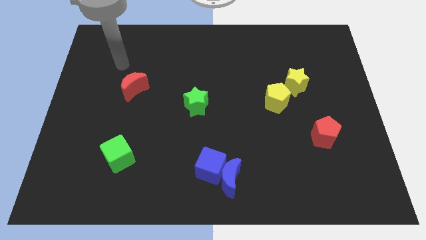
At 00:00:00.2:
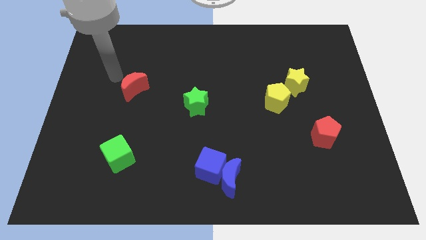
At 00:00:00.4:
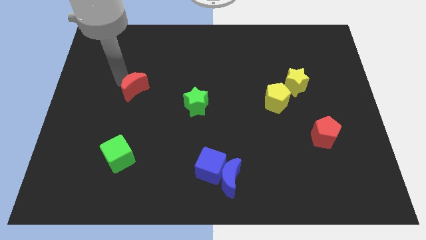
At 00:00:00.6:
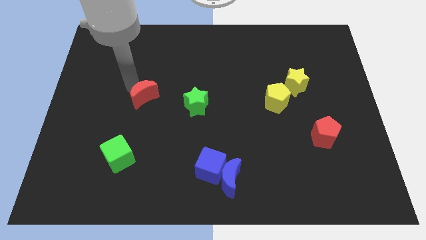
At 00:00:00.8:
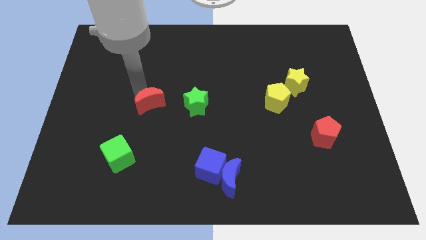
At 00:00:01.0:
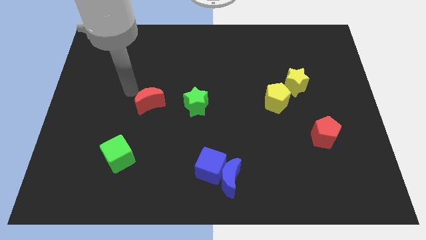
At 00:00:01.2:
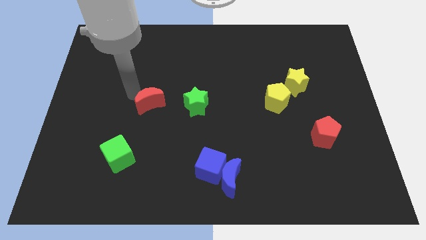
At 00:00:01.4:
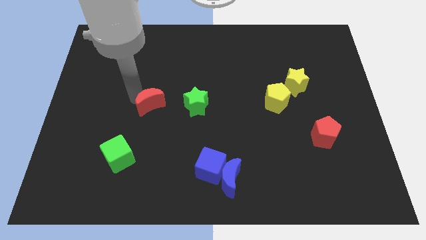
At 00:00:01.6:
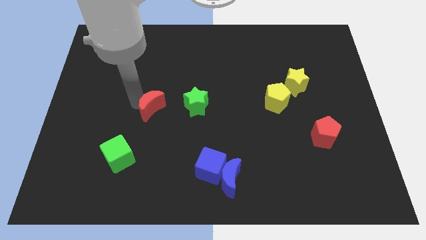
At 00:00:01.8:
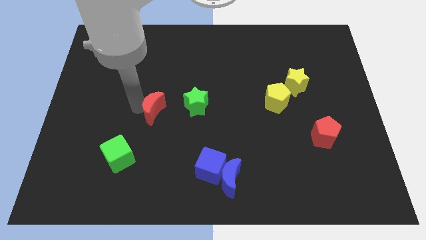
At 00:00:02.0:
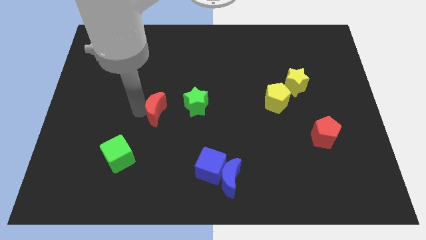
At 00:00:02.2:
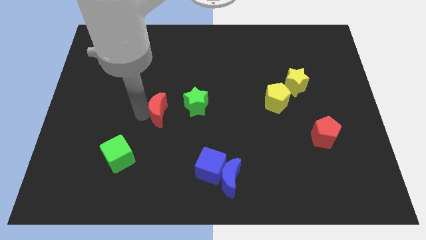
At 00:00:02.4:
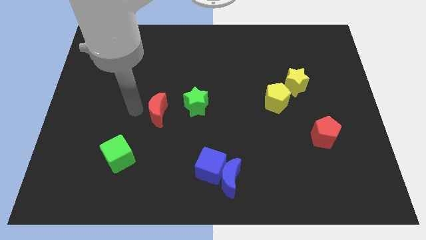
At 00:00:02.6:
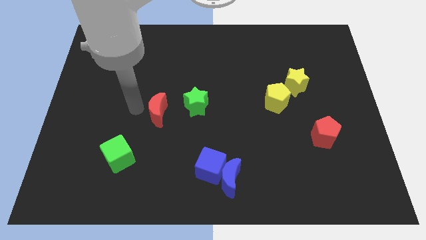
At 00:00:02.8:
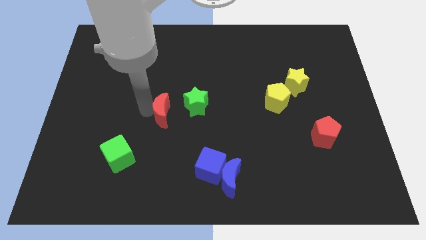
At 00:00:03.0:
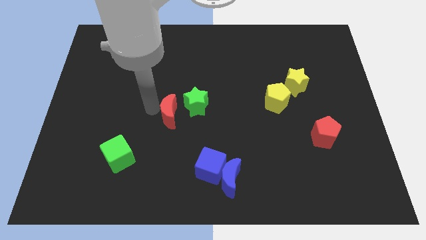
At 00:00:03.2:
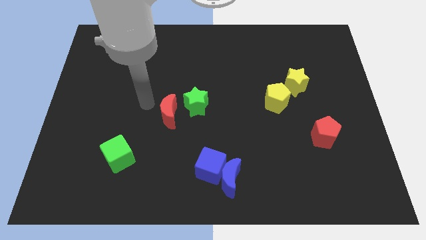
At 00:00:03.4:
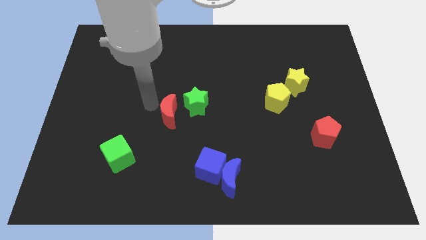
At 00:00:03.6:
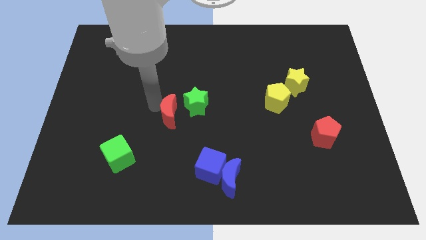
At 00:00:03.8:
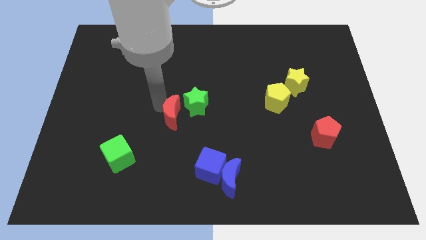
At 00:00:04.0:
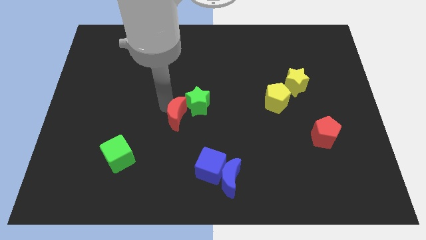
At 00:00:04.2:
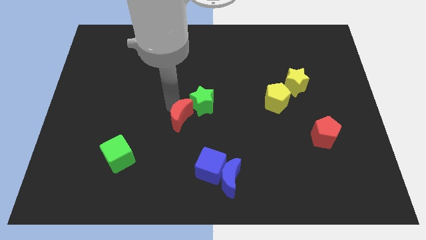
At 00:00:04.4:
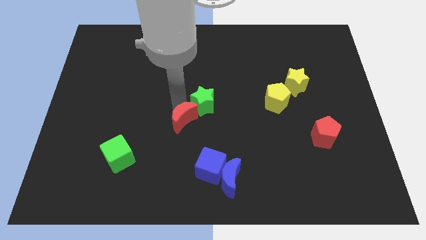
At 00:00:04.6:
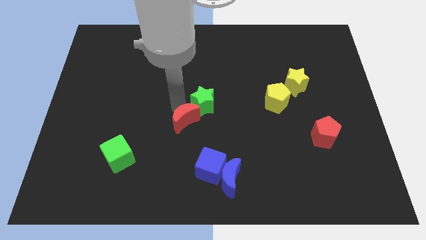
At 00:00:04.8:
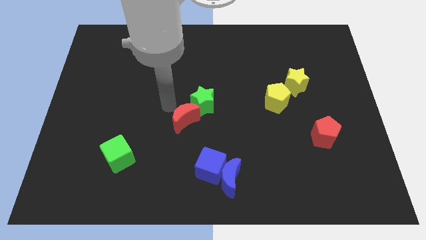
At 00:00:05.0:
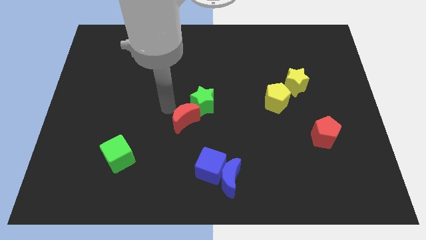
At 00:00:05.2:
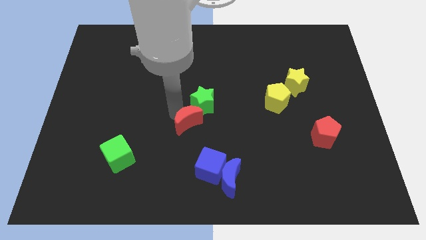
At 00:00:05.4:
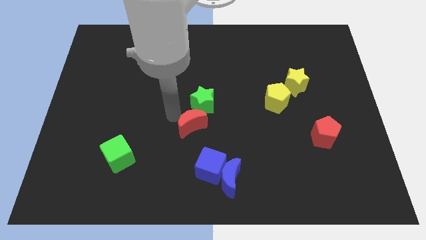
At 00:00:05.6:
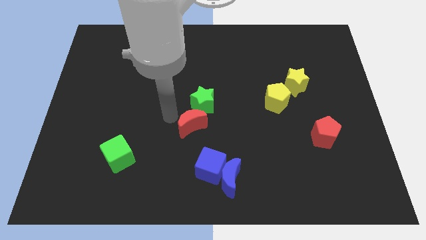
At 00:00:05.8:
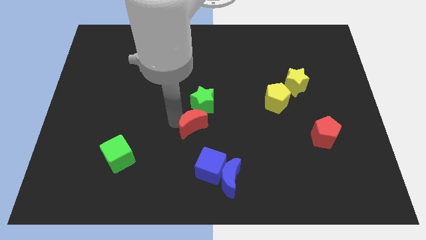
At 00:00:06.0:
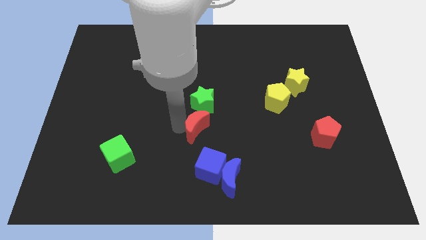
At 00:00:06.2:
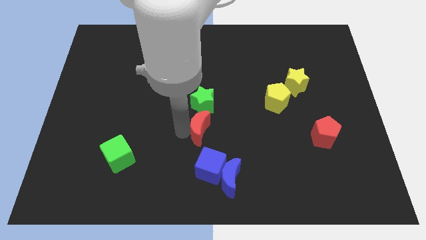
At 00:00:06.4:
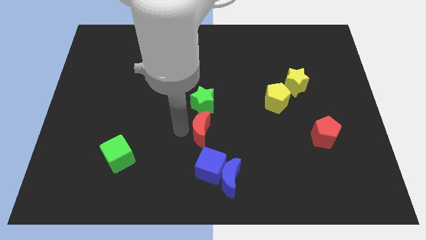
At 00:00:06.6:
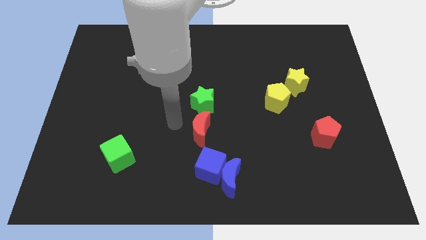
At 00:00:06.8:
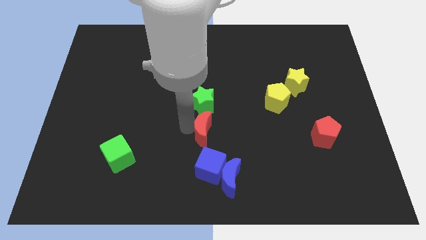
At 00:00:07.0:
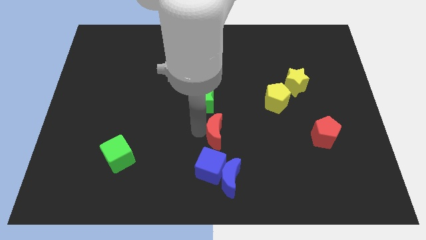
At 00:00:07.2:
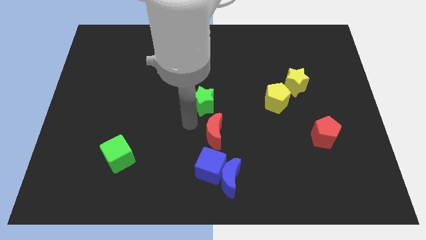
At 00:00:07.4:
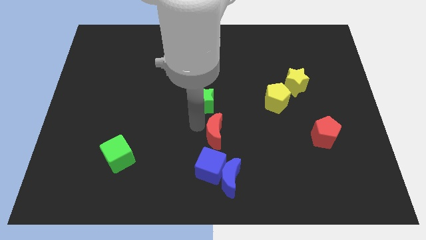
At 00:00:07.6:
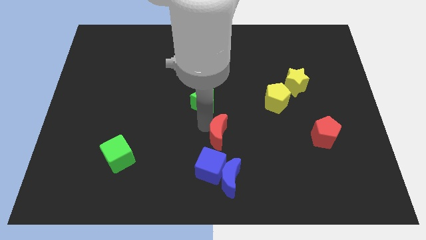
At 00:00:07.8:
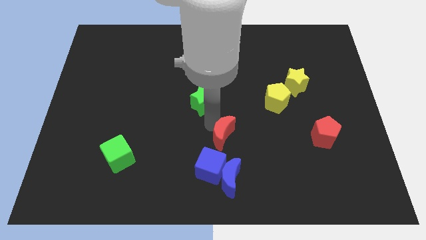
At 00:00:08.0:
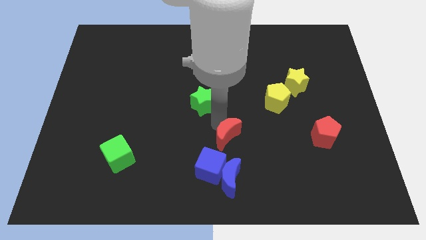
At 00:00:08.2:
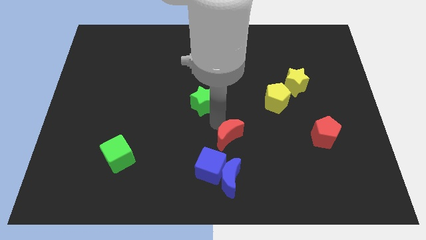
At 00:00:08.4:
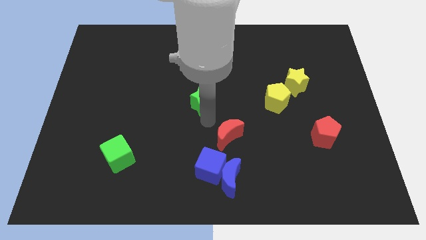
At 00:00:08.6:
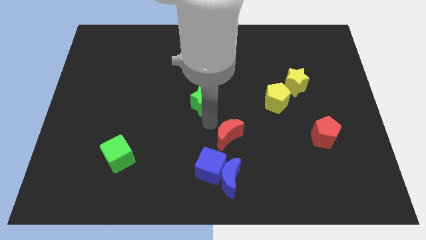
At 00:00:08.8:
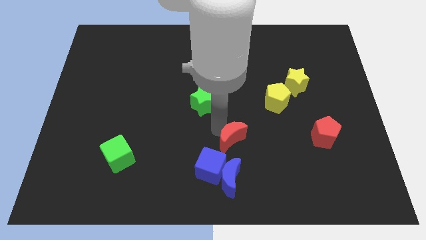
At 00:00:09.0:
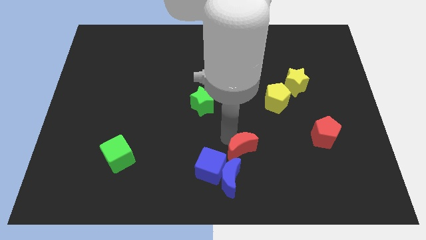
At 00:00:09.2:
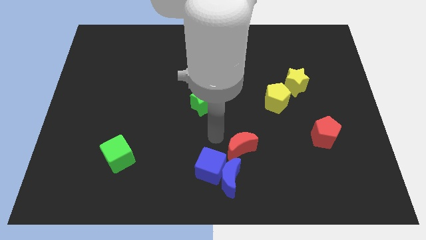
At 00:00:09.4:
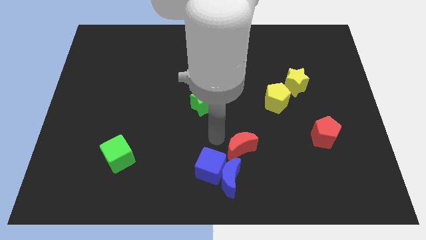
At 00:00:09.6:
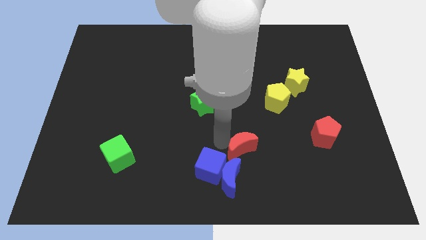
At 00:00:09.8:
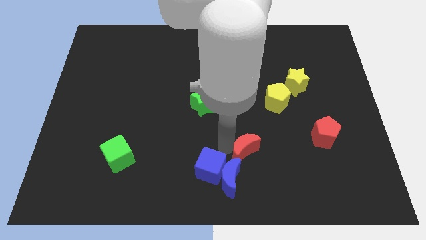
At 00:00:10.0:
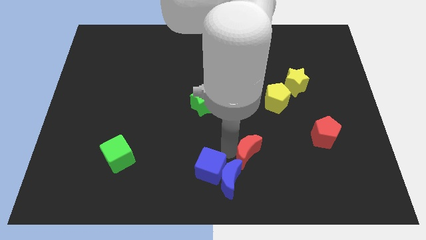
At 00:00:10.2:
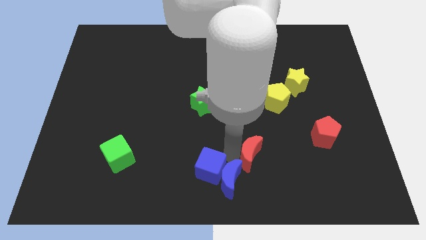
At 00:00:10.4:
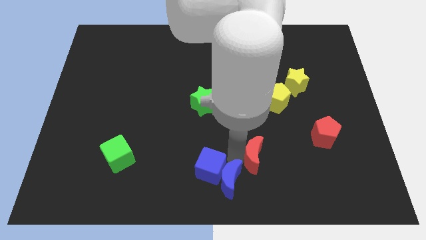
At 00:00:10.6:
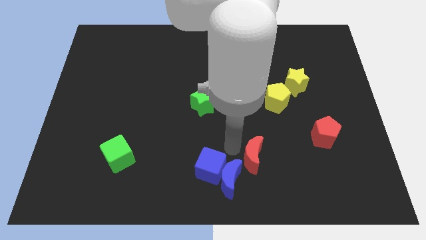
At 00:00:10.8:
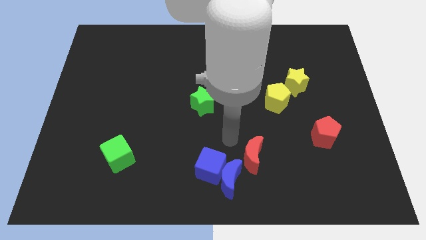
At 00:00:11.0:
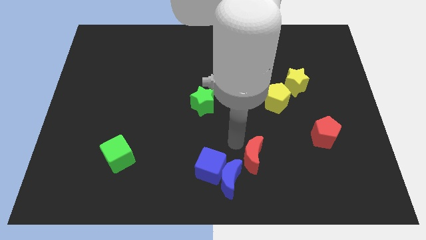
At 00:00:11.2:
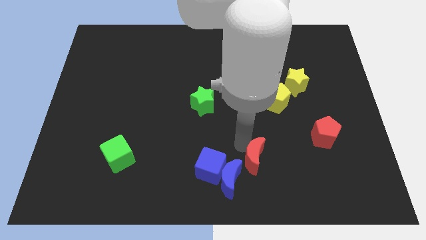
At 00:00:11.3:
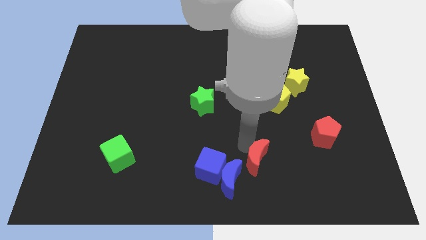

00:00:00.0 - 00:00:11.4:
slide the red moon to the right side of the blue moon
